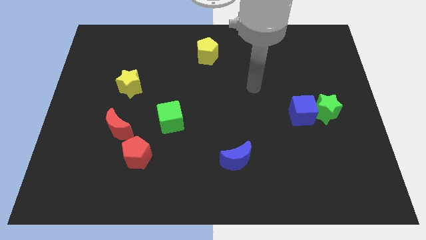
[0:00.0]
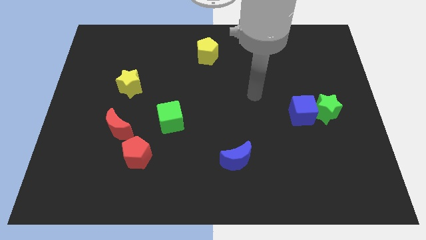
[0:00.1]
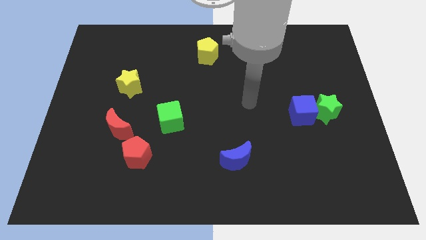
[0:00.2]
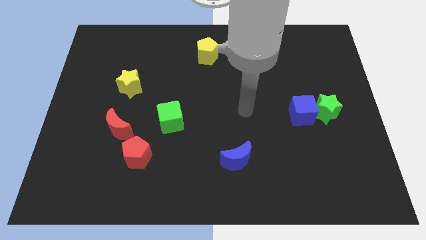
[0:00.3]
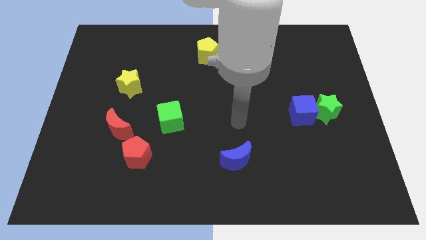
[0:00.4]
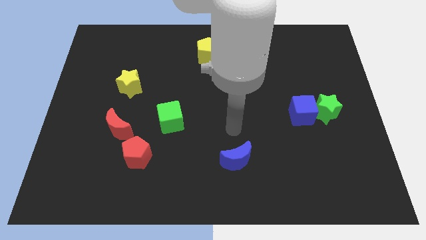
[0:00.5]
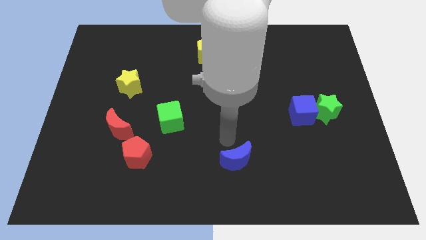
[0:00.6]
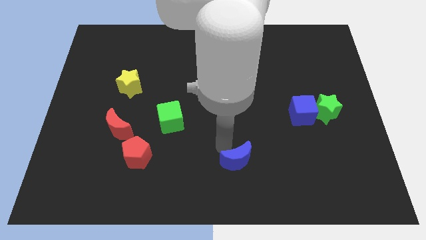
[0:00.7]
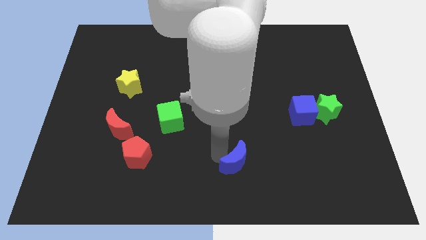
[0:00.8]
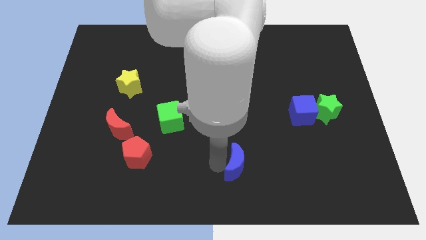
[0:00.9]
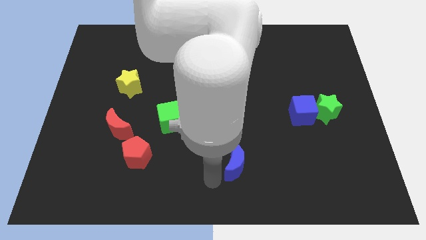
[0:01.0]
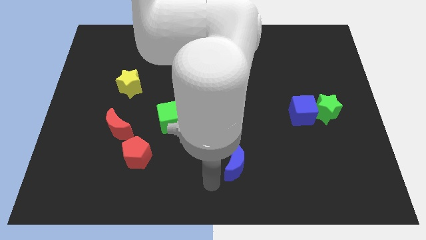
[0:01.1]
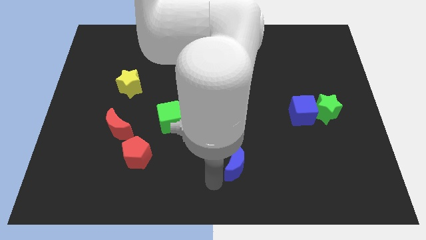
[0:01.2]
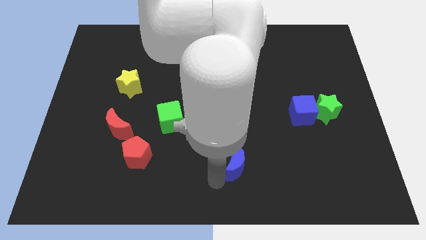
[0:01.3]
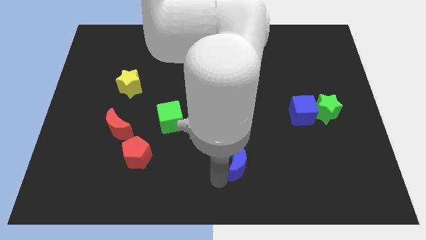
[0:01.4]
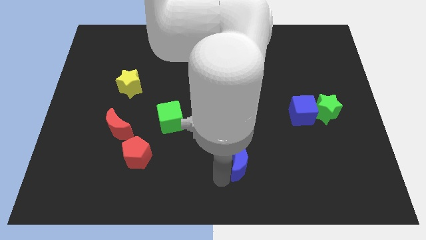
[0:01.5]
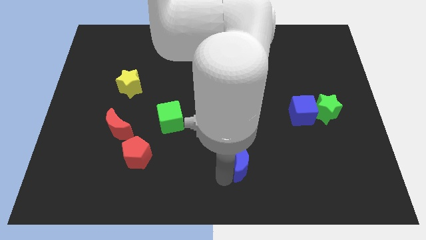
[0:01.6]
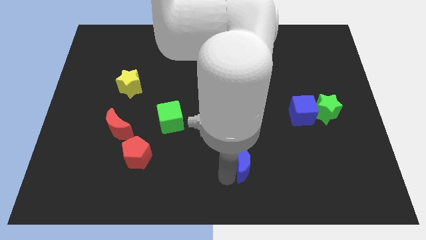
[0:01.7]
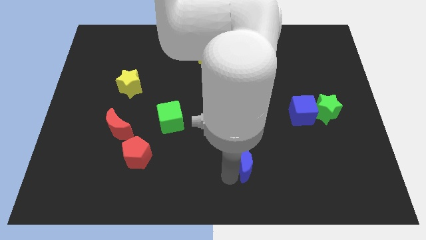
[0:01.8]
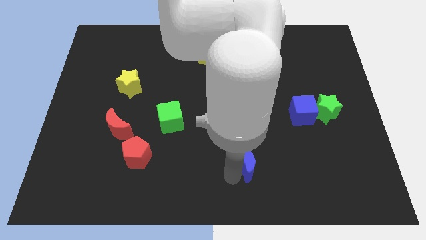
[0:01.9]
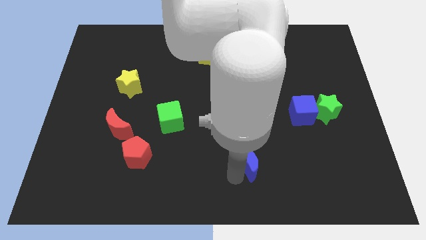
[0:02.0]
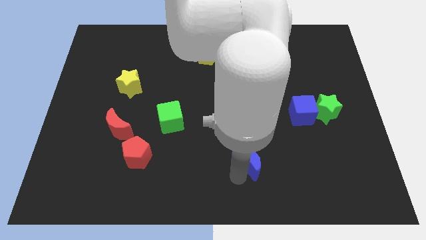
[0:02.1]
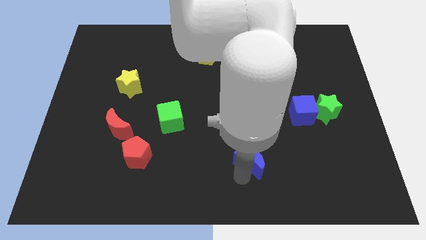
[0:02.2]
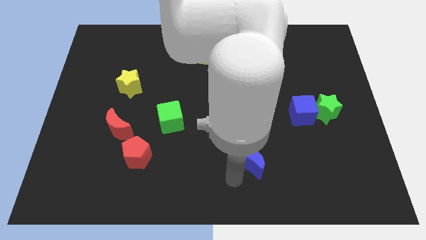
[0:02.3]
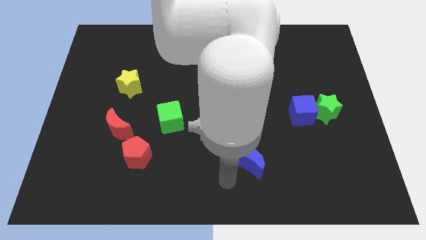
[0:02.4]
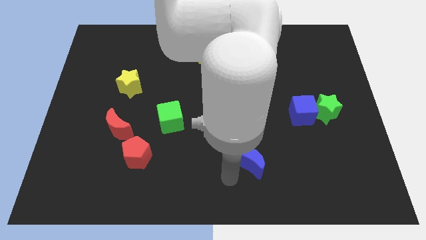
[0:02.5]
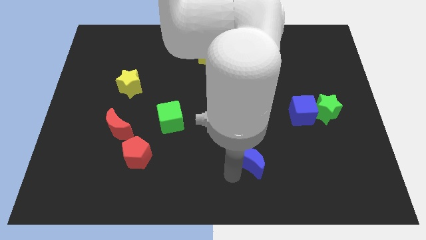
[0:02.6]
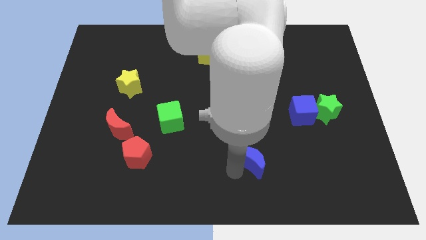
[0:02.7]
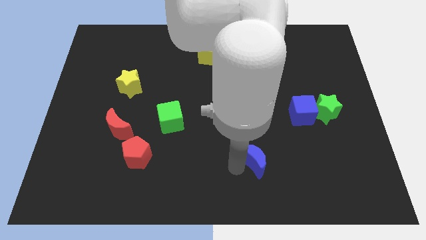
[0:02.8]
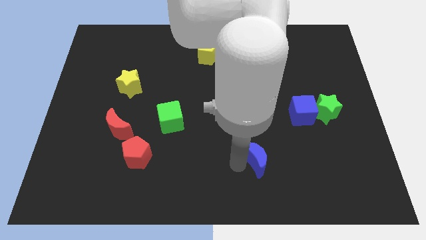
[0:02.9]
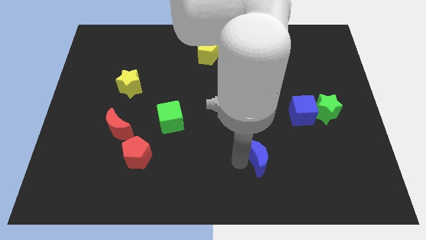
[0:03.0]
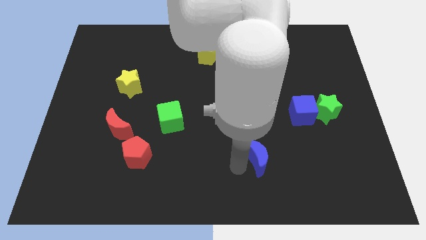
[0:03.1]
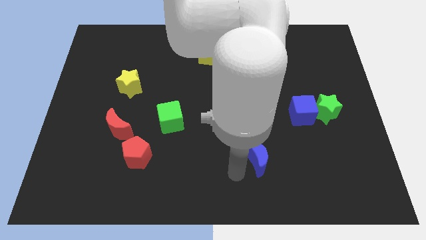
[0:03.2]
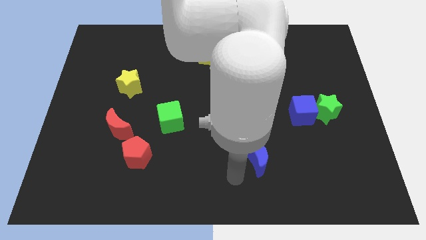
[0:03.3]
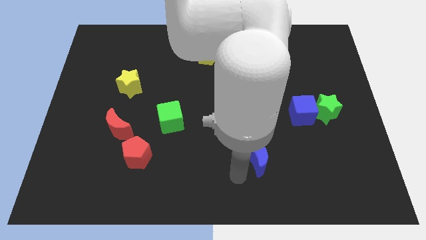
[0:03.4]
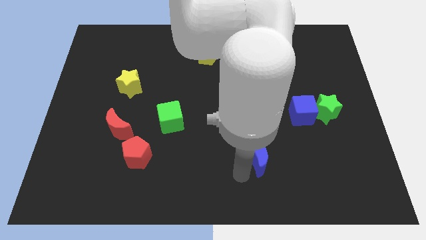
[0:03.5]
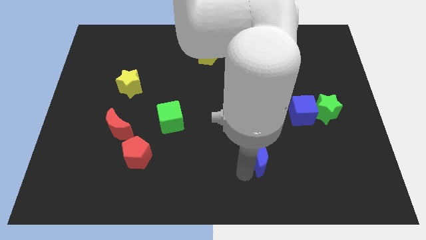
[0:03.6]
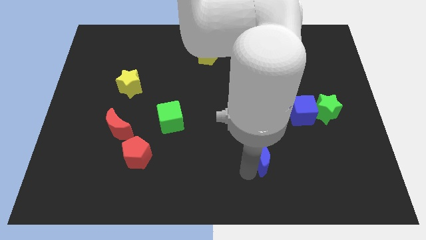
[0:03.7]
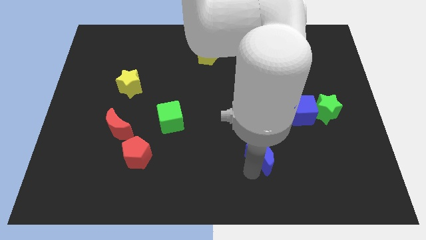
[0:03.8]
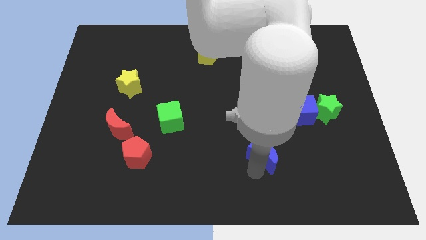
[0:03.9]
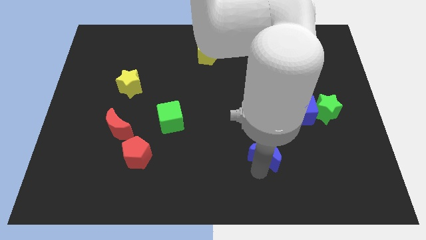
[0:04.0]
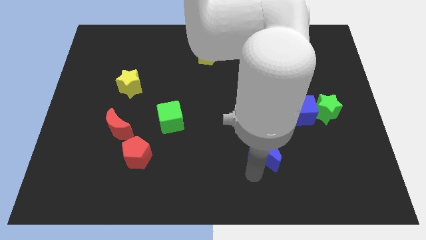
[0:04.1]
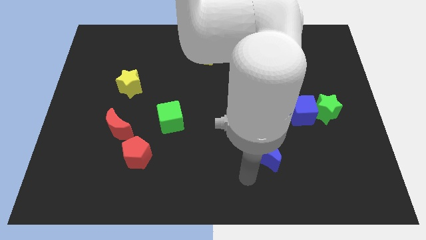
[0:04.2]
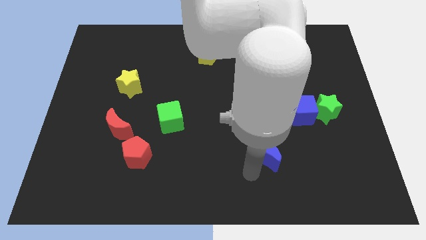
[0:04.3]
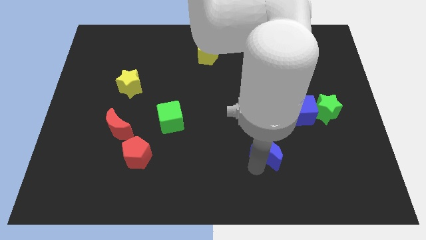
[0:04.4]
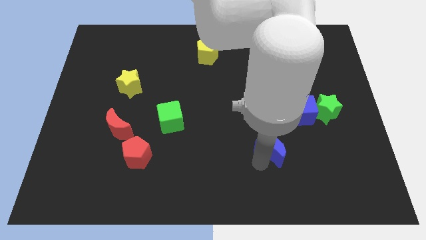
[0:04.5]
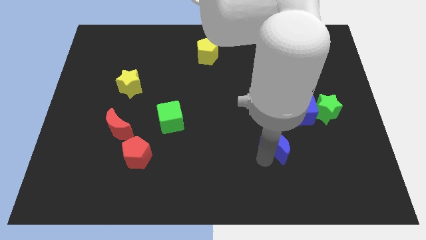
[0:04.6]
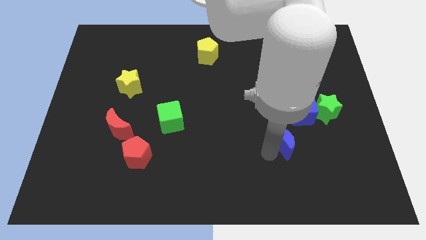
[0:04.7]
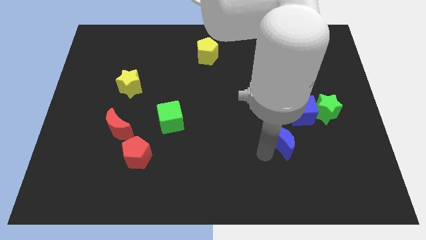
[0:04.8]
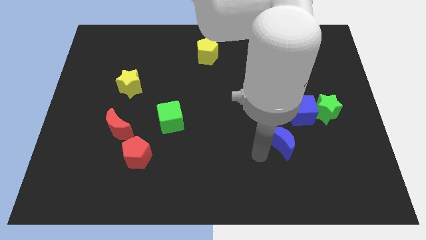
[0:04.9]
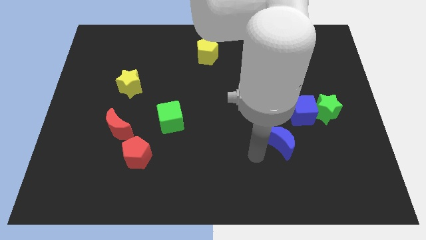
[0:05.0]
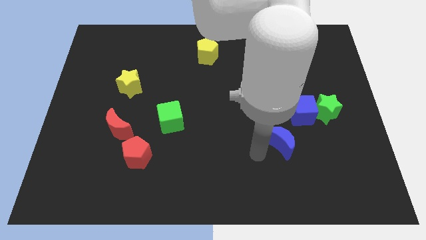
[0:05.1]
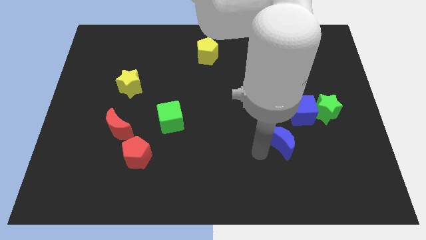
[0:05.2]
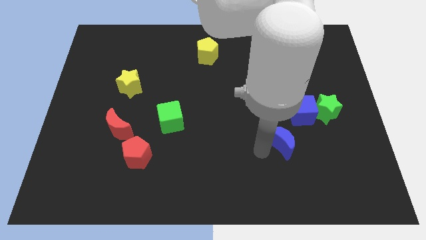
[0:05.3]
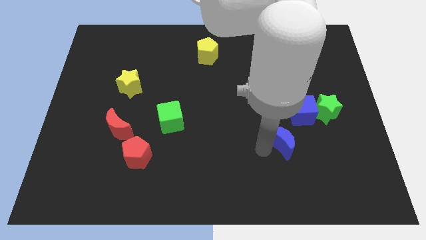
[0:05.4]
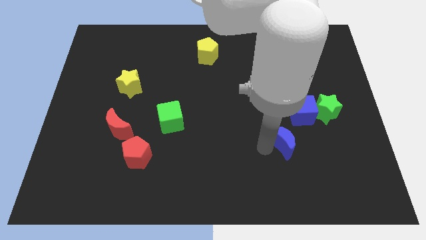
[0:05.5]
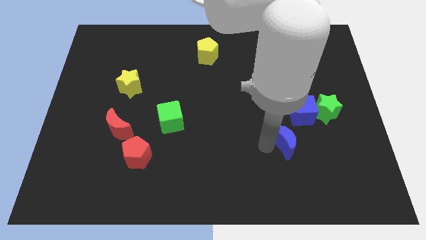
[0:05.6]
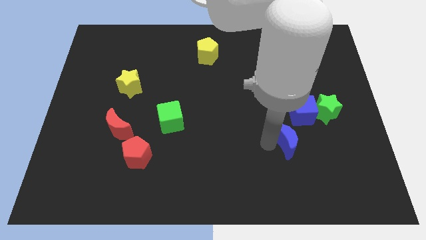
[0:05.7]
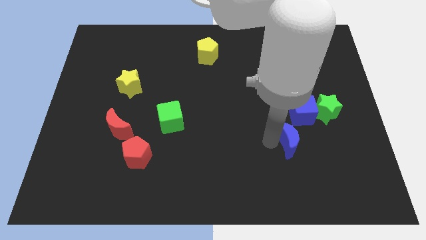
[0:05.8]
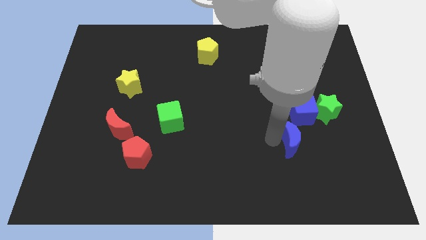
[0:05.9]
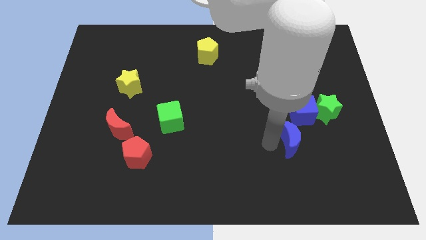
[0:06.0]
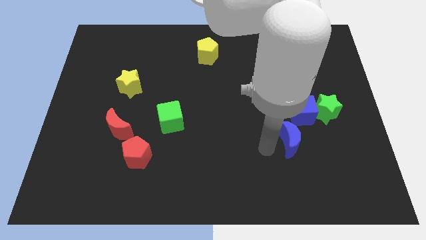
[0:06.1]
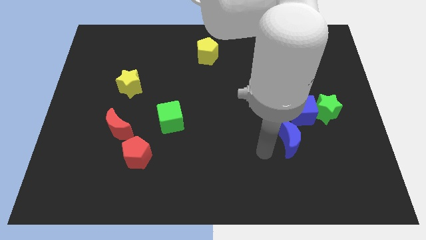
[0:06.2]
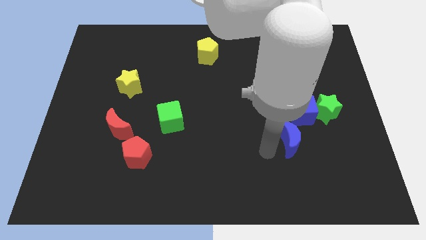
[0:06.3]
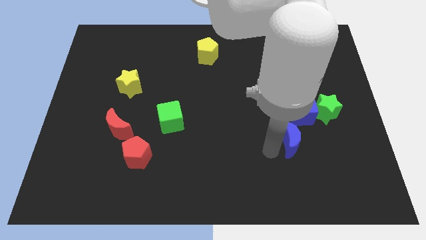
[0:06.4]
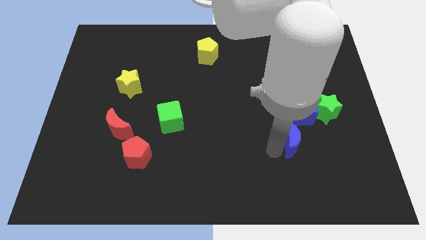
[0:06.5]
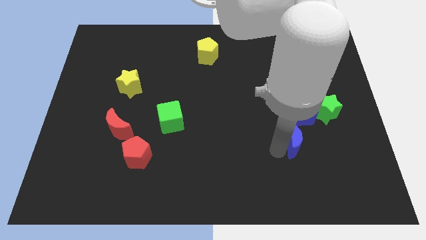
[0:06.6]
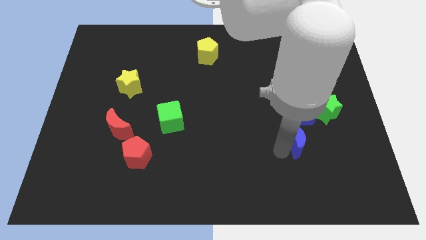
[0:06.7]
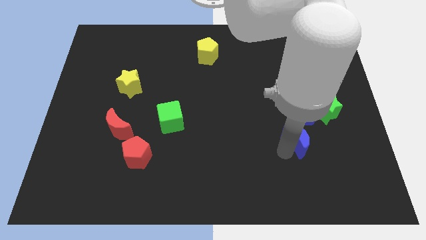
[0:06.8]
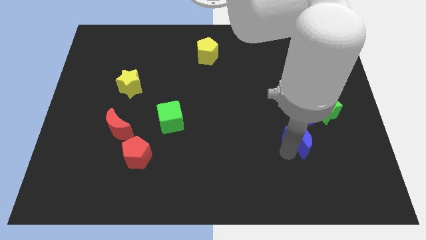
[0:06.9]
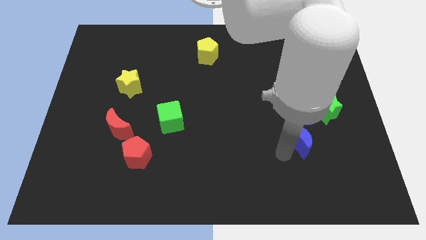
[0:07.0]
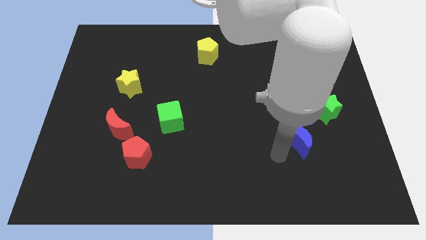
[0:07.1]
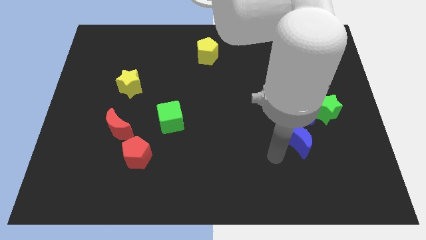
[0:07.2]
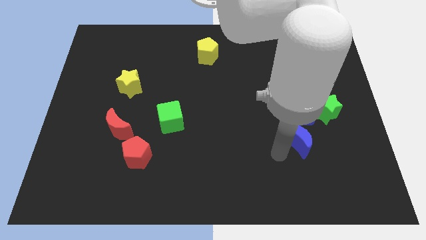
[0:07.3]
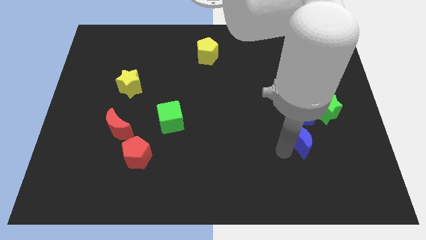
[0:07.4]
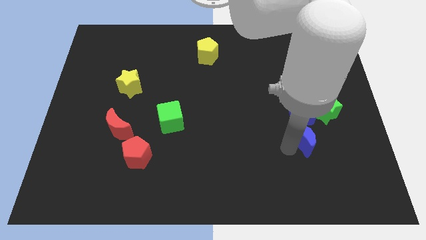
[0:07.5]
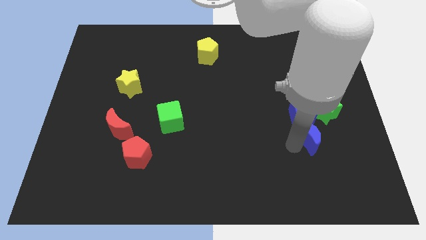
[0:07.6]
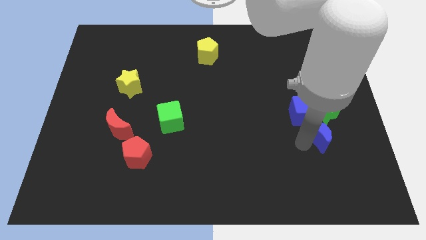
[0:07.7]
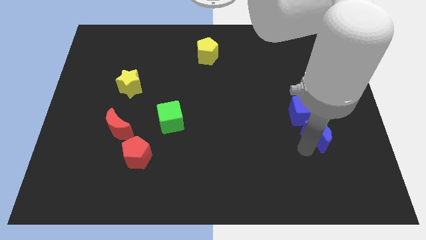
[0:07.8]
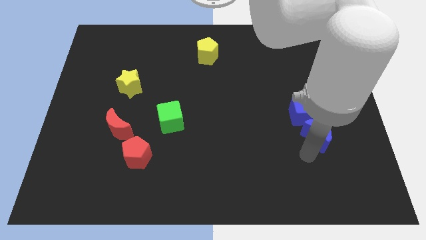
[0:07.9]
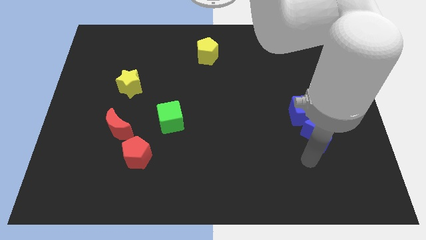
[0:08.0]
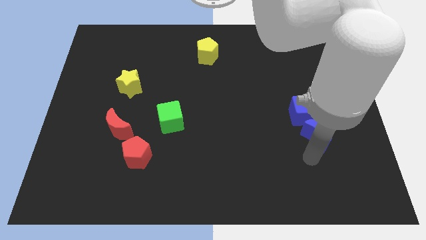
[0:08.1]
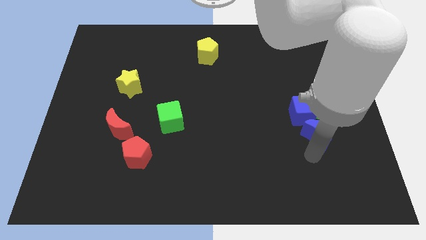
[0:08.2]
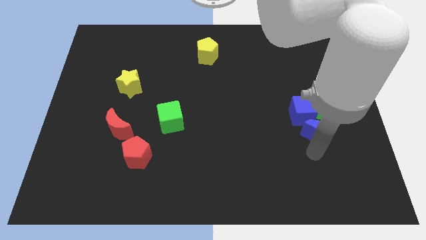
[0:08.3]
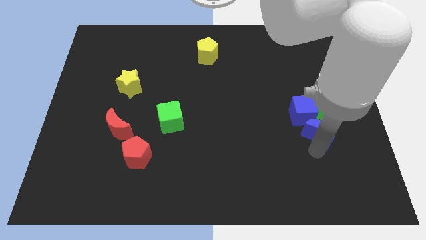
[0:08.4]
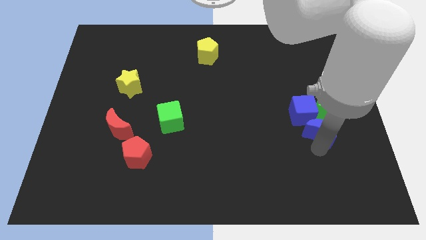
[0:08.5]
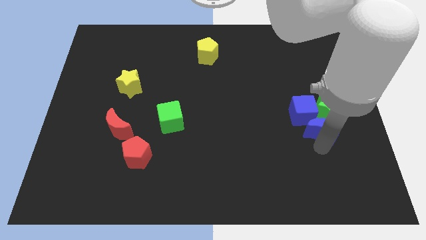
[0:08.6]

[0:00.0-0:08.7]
slide the blue moon towards the green star
